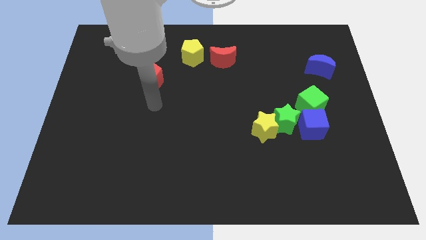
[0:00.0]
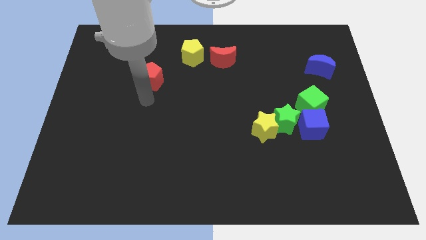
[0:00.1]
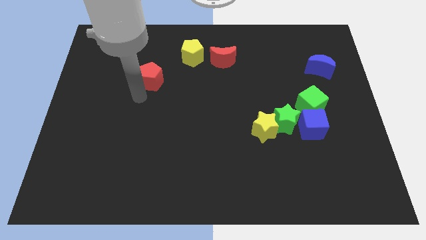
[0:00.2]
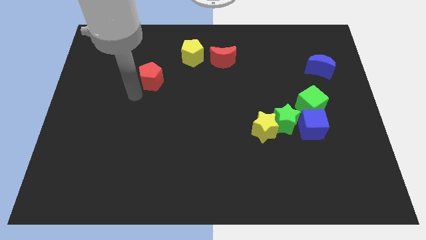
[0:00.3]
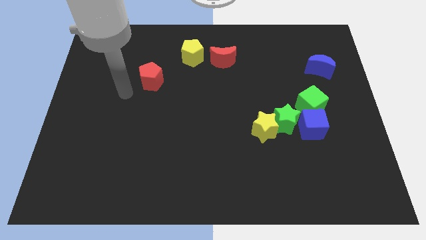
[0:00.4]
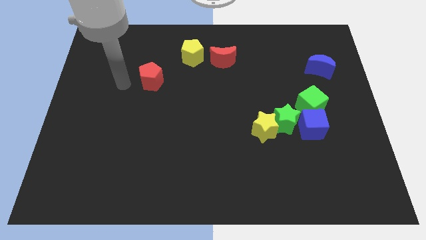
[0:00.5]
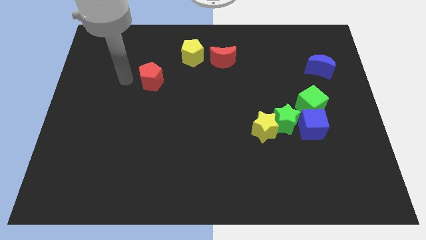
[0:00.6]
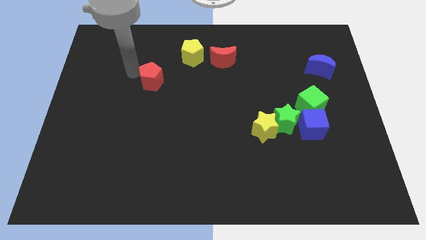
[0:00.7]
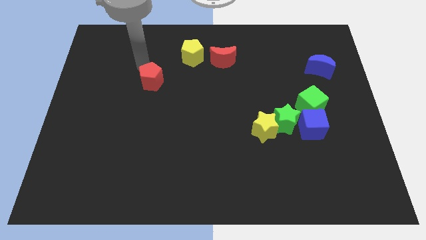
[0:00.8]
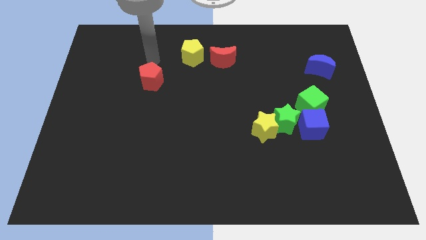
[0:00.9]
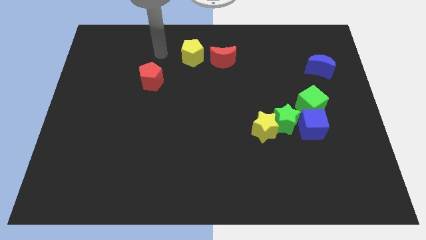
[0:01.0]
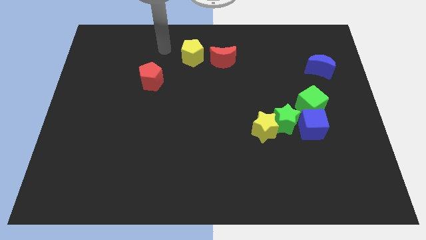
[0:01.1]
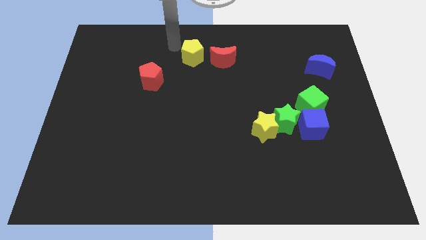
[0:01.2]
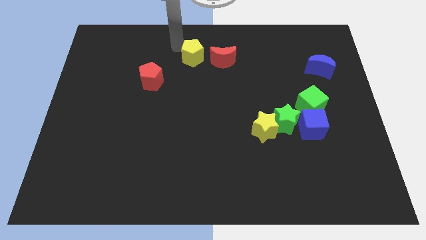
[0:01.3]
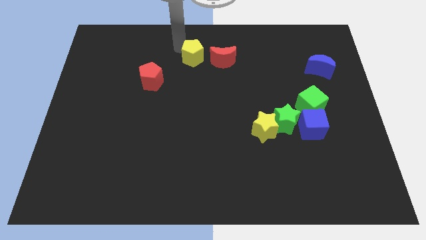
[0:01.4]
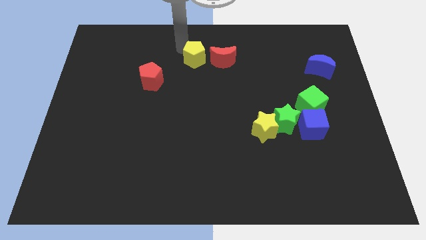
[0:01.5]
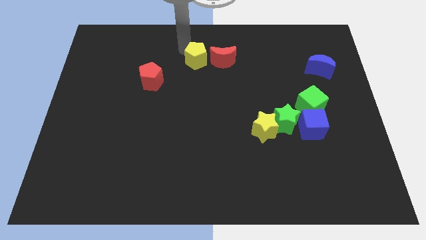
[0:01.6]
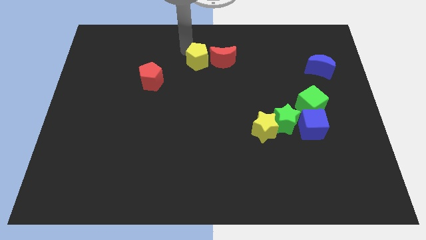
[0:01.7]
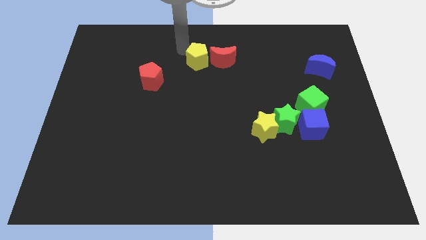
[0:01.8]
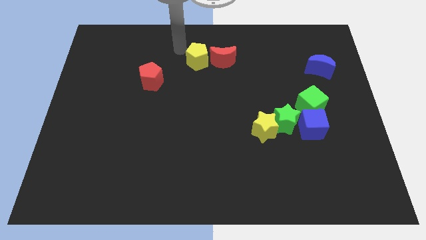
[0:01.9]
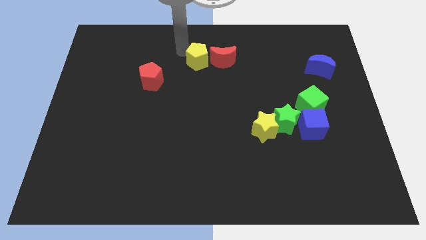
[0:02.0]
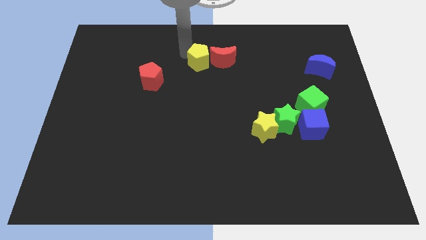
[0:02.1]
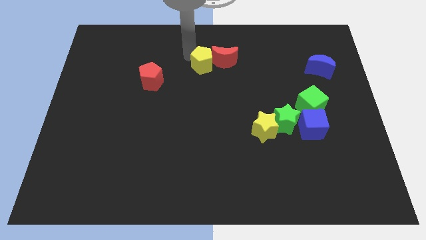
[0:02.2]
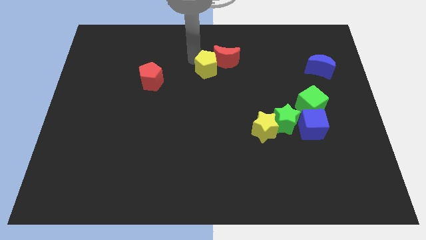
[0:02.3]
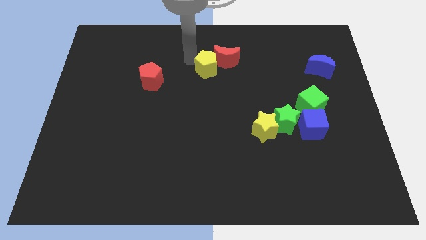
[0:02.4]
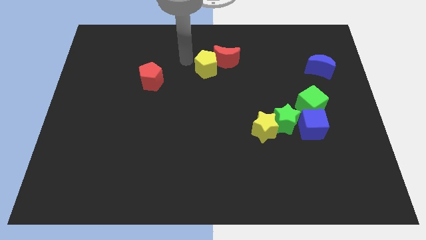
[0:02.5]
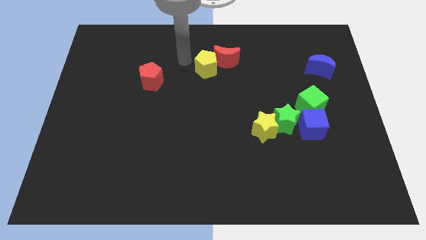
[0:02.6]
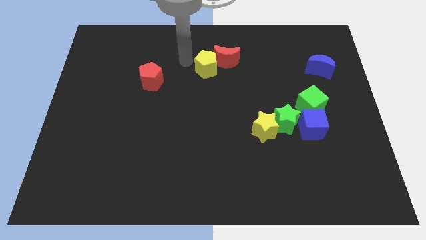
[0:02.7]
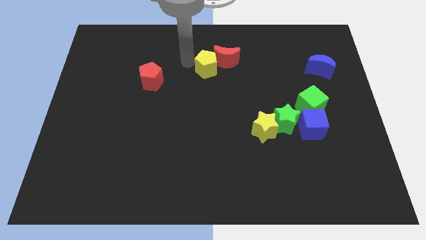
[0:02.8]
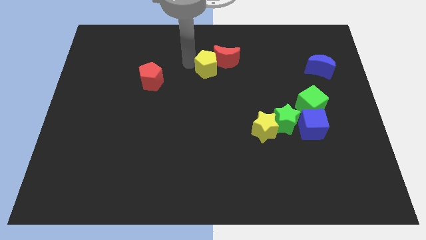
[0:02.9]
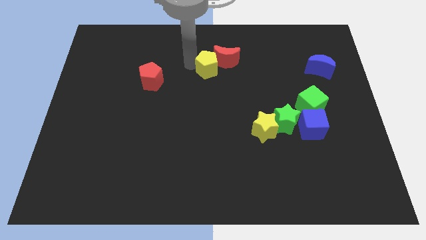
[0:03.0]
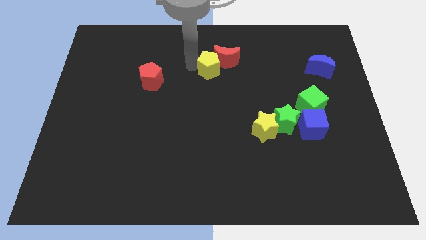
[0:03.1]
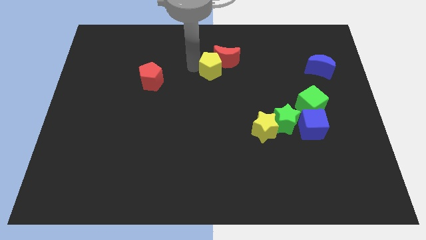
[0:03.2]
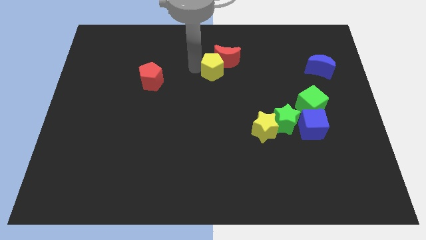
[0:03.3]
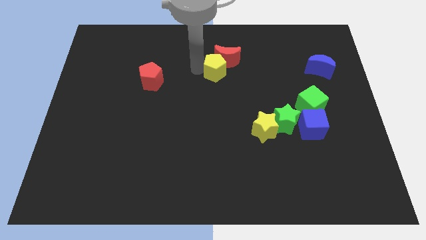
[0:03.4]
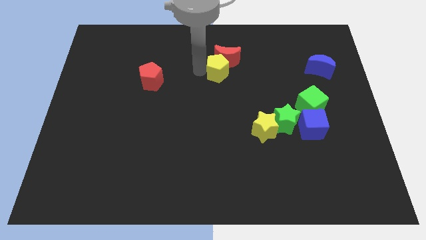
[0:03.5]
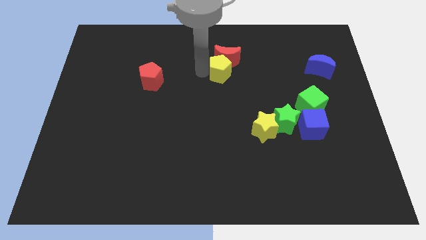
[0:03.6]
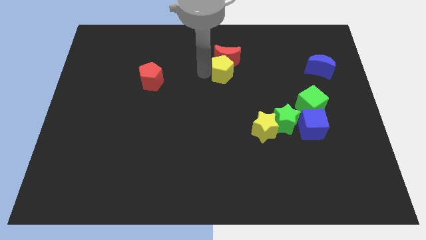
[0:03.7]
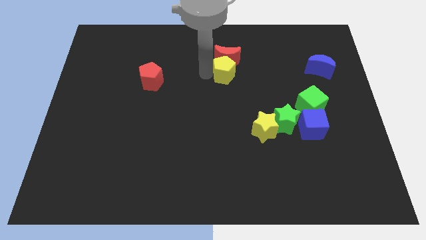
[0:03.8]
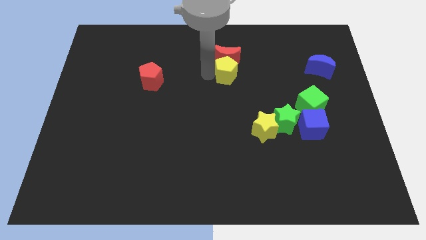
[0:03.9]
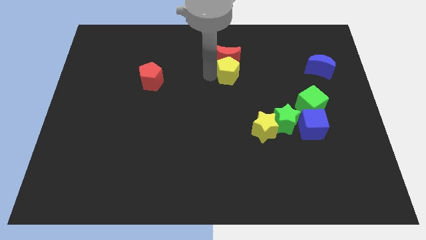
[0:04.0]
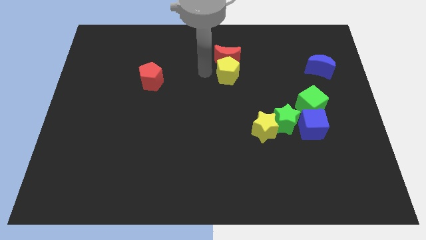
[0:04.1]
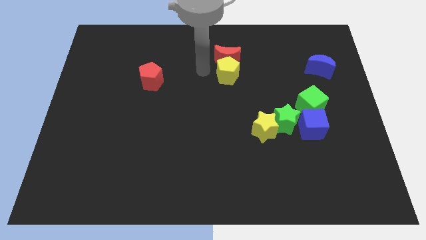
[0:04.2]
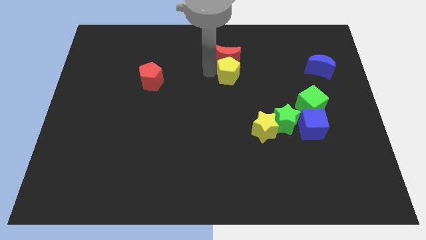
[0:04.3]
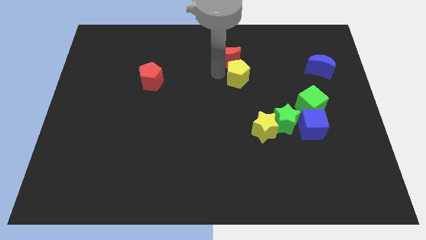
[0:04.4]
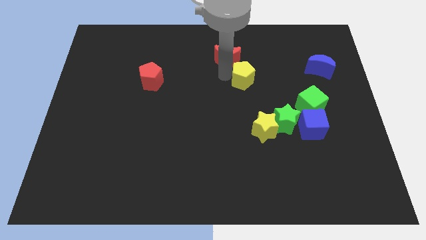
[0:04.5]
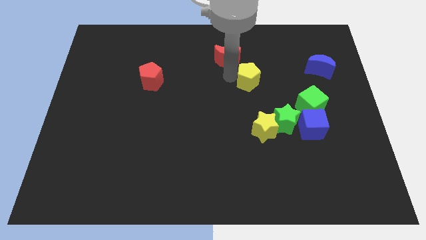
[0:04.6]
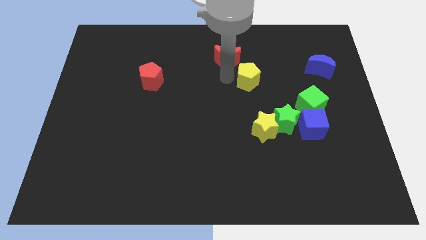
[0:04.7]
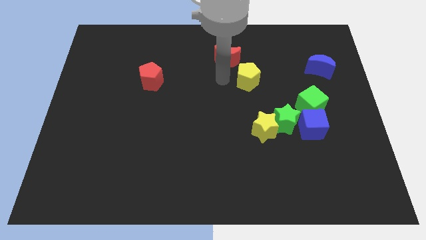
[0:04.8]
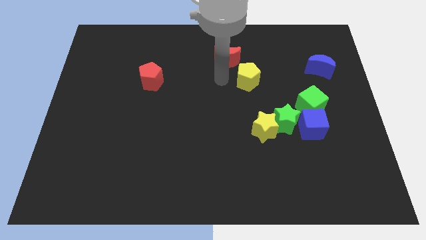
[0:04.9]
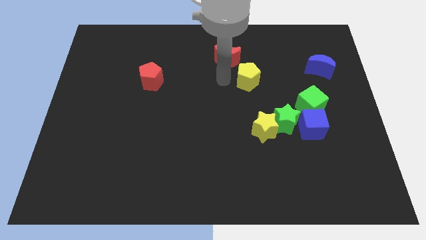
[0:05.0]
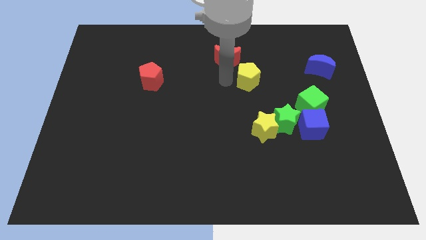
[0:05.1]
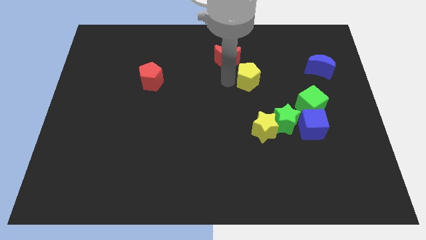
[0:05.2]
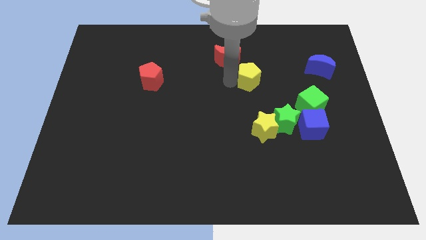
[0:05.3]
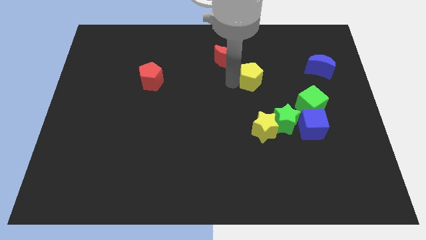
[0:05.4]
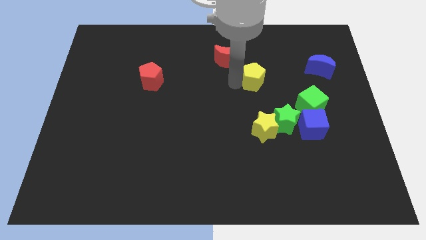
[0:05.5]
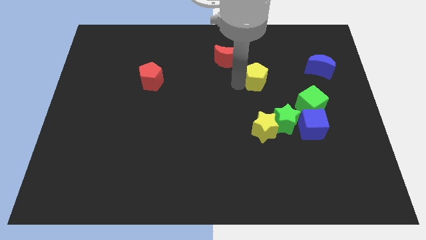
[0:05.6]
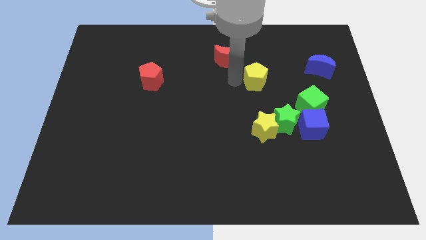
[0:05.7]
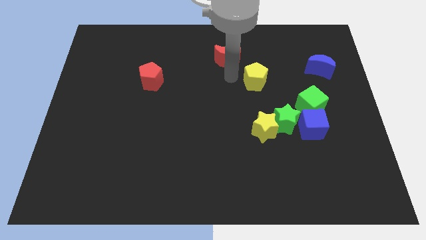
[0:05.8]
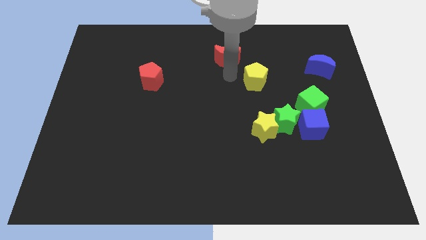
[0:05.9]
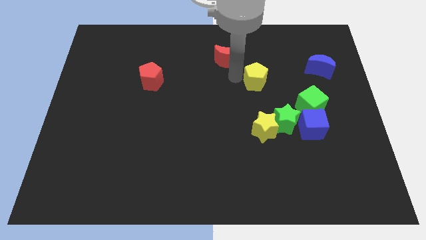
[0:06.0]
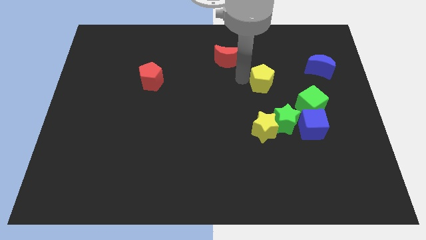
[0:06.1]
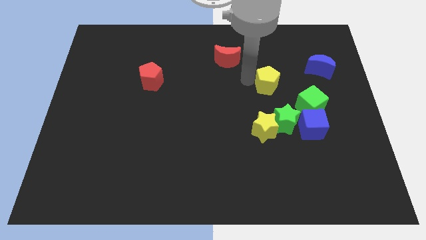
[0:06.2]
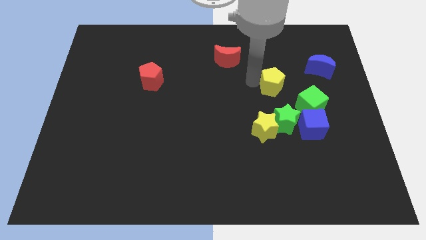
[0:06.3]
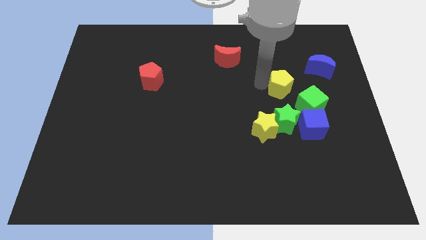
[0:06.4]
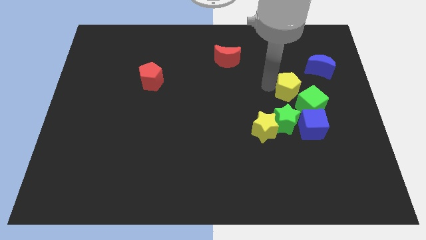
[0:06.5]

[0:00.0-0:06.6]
slide the yellow pentagon to the top of the blue cube
